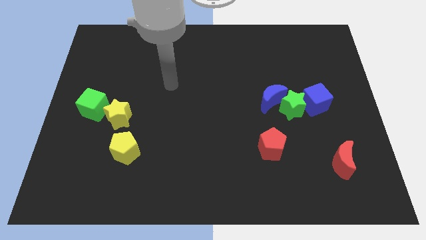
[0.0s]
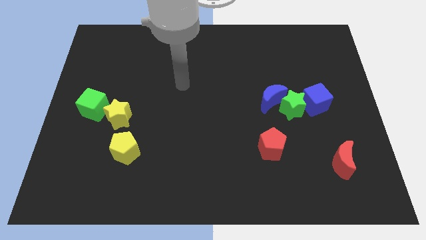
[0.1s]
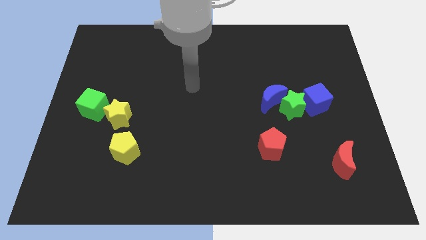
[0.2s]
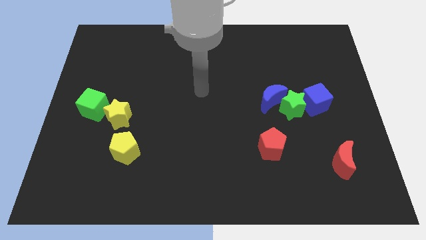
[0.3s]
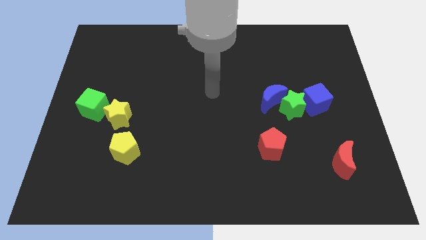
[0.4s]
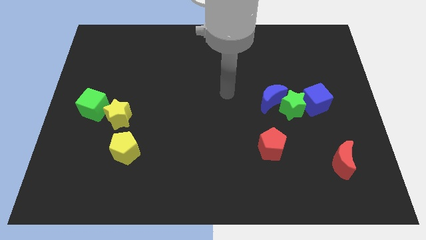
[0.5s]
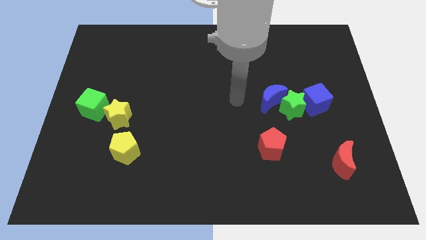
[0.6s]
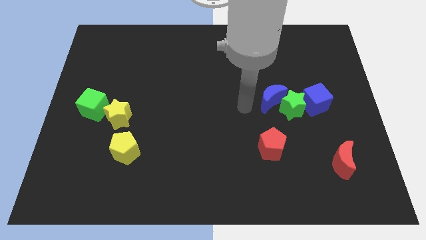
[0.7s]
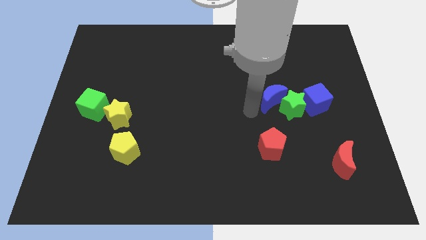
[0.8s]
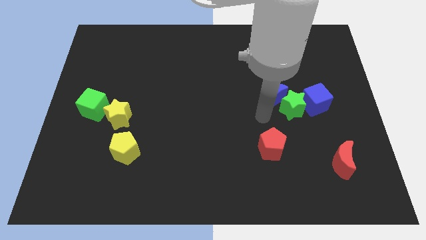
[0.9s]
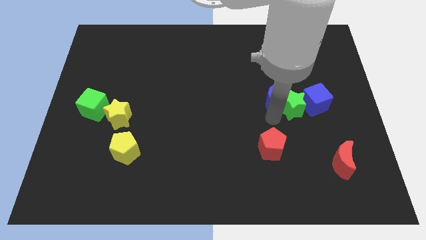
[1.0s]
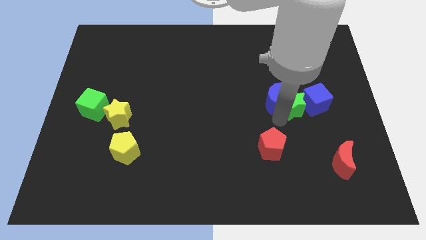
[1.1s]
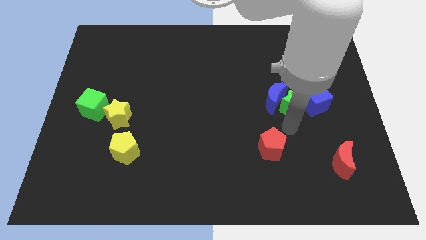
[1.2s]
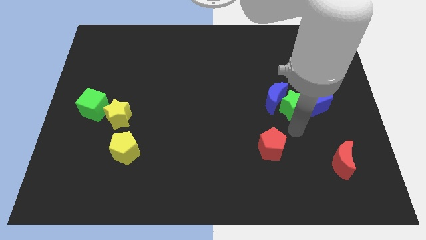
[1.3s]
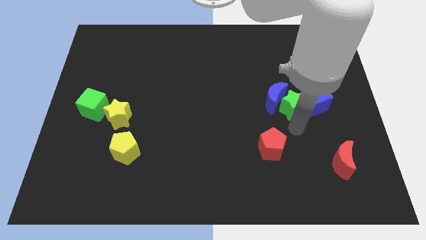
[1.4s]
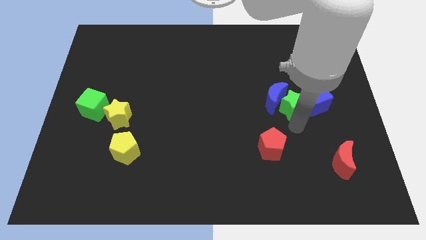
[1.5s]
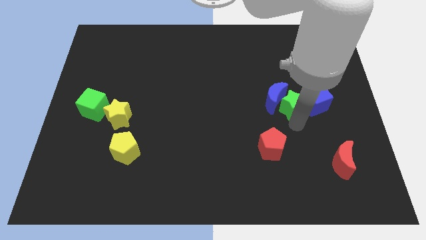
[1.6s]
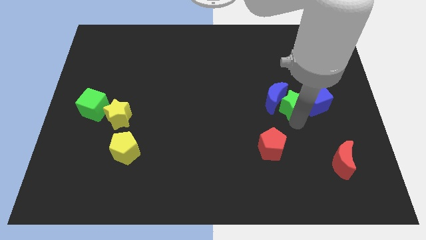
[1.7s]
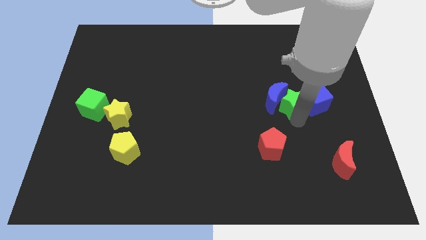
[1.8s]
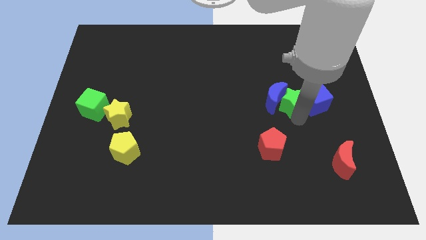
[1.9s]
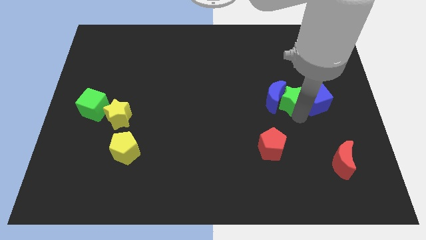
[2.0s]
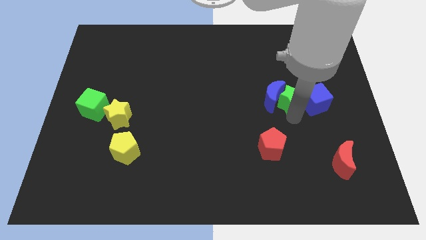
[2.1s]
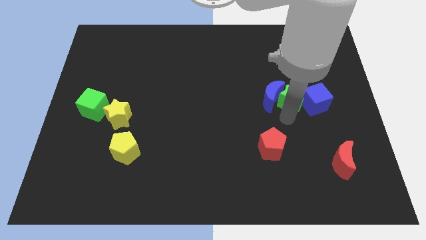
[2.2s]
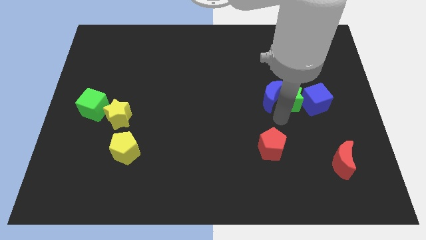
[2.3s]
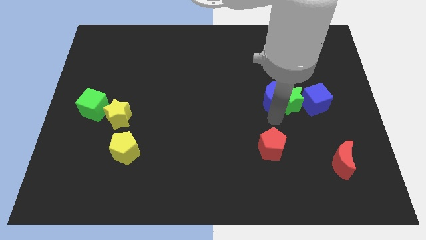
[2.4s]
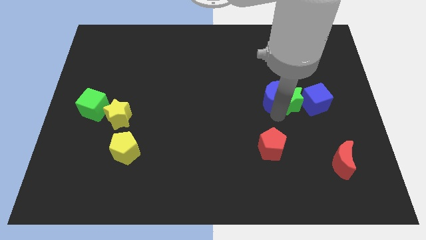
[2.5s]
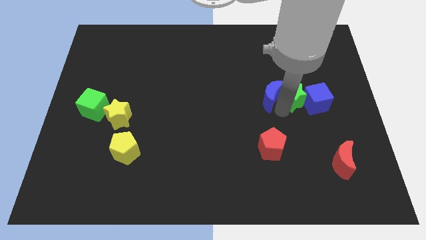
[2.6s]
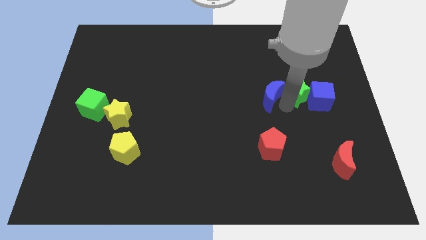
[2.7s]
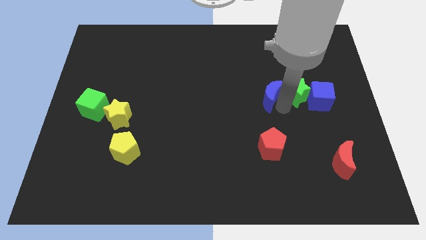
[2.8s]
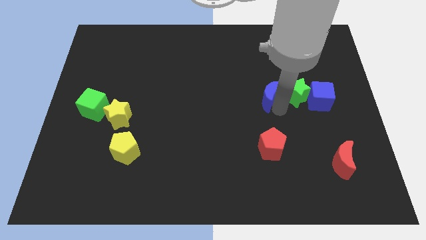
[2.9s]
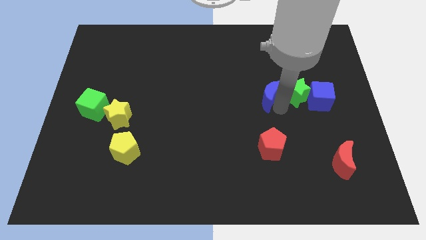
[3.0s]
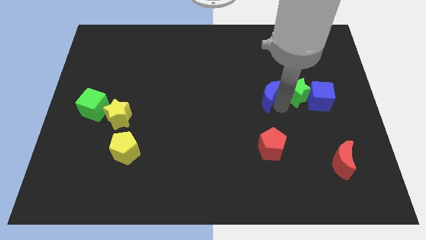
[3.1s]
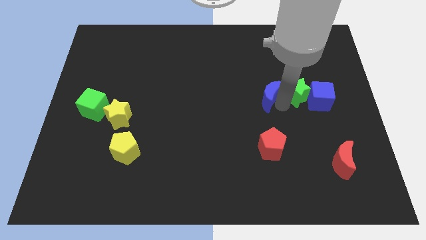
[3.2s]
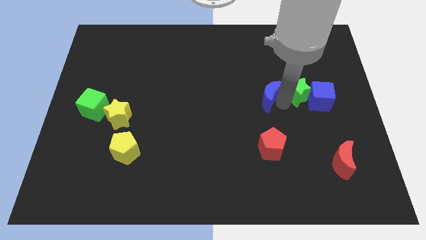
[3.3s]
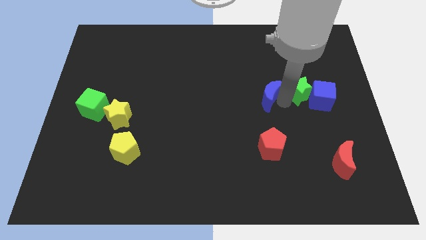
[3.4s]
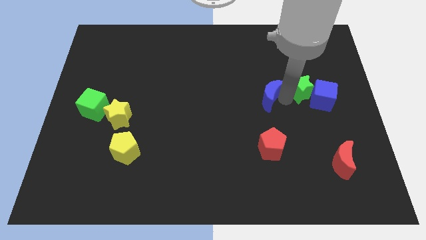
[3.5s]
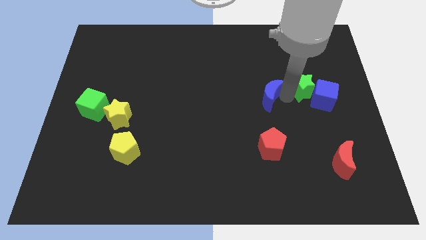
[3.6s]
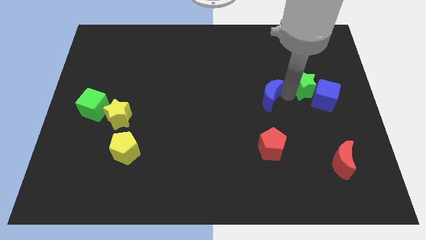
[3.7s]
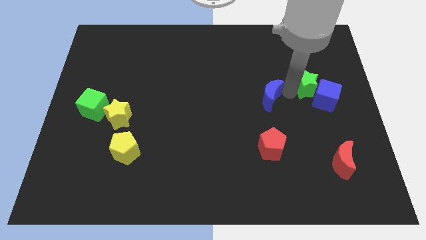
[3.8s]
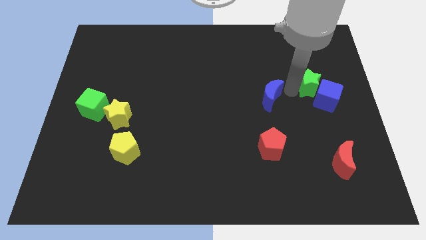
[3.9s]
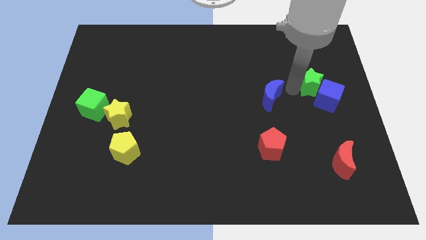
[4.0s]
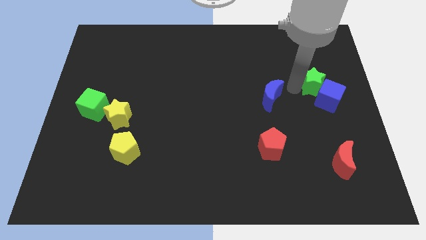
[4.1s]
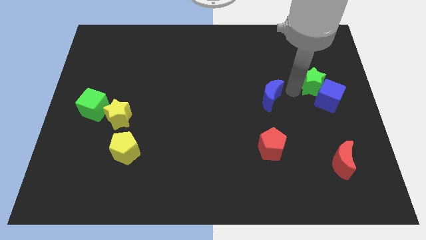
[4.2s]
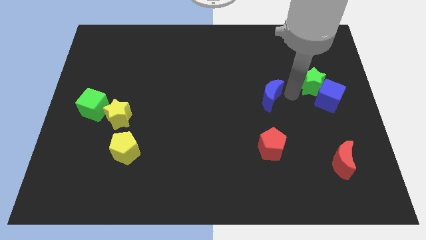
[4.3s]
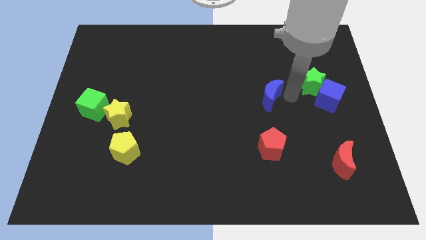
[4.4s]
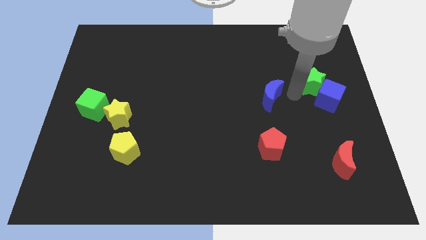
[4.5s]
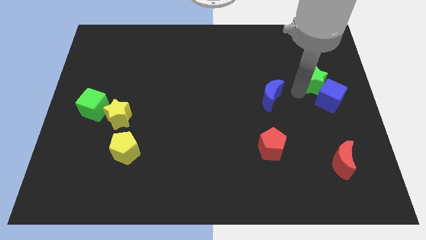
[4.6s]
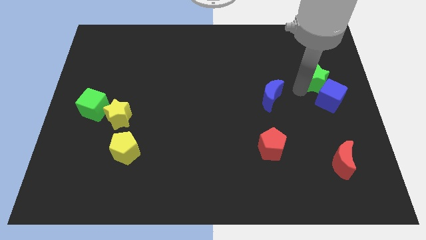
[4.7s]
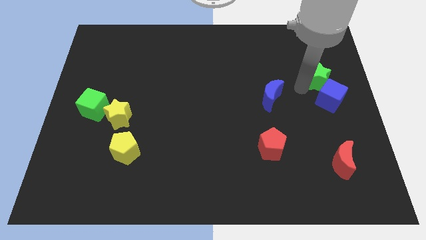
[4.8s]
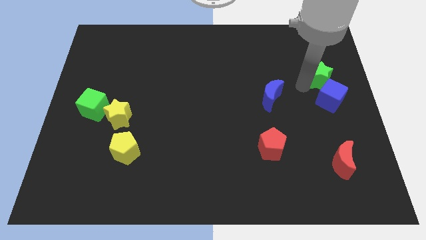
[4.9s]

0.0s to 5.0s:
put the green star to the right side of the board

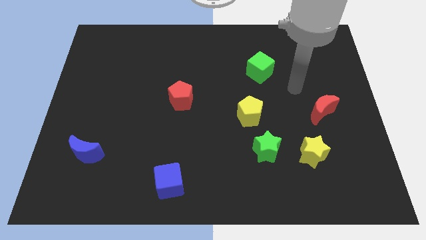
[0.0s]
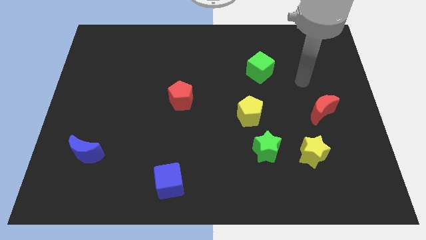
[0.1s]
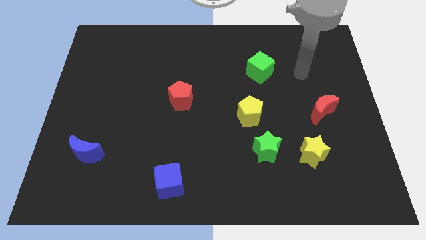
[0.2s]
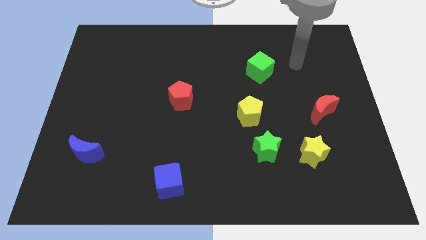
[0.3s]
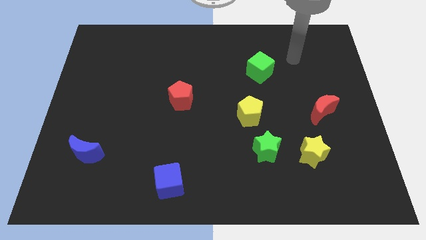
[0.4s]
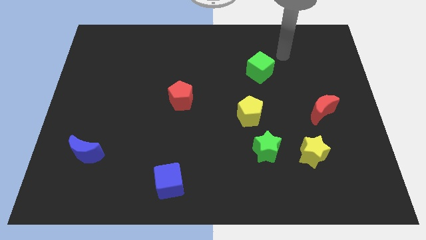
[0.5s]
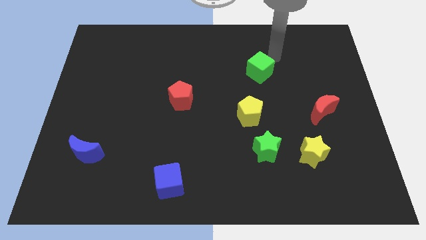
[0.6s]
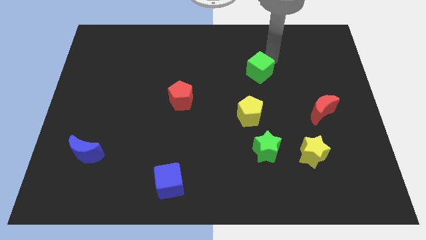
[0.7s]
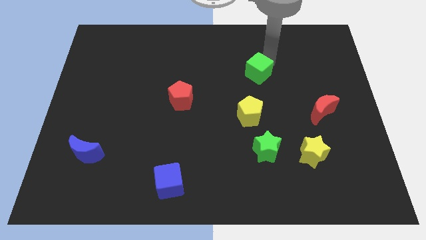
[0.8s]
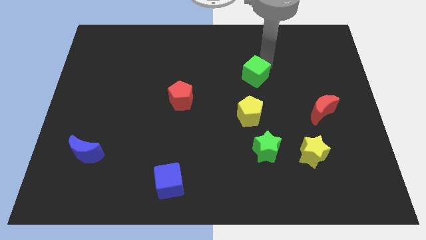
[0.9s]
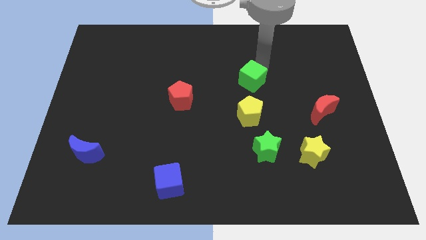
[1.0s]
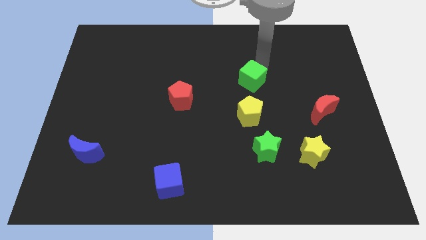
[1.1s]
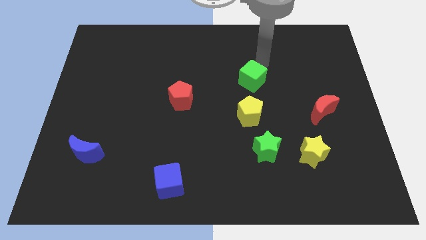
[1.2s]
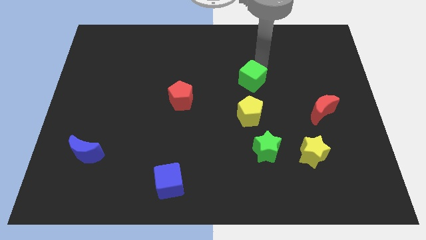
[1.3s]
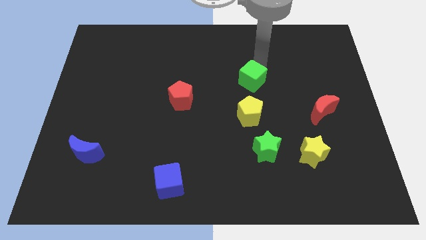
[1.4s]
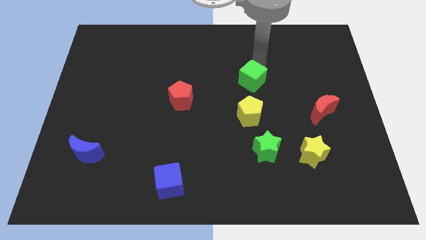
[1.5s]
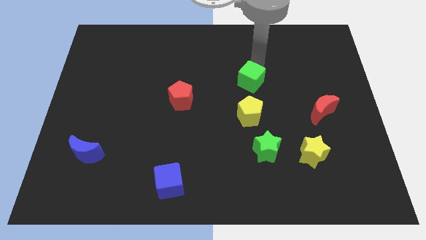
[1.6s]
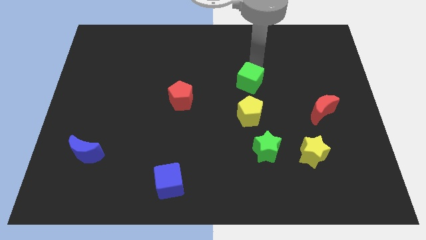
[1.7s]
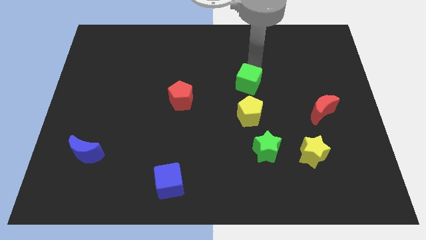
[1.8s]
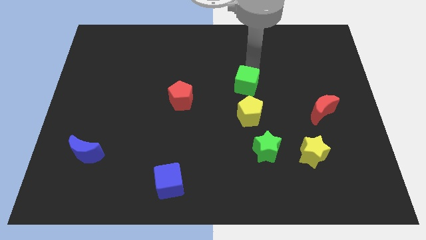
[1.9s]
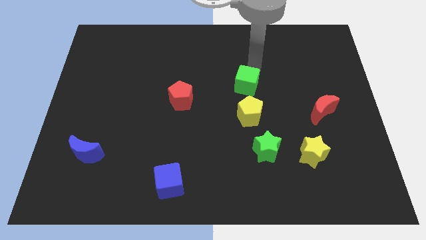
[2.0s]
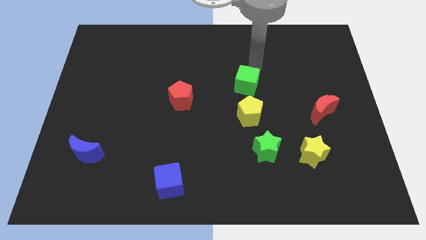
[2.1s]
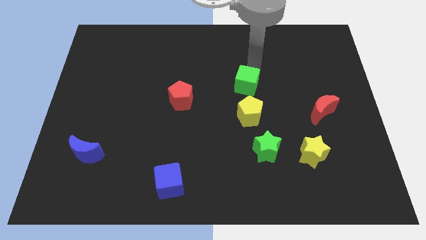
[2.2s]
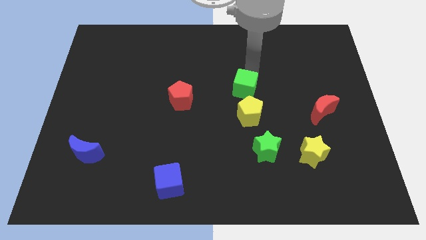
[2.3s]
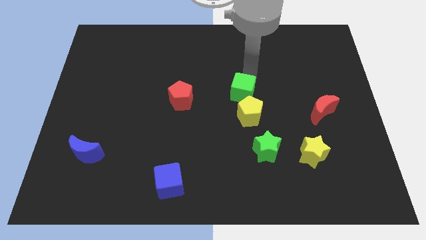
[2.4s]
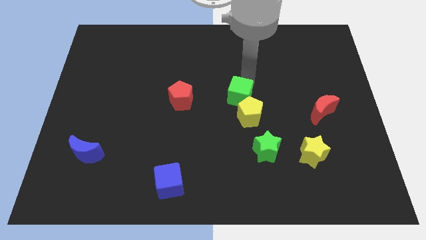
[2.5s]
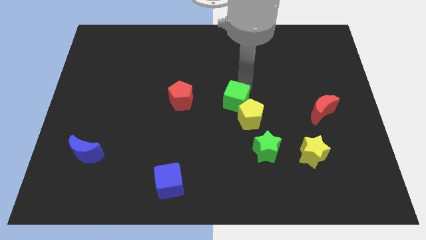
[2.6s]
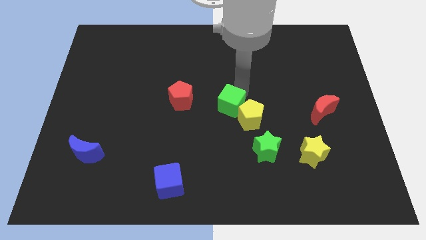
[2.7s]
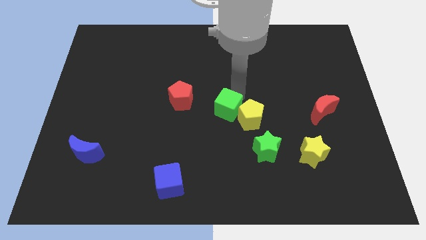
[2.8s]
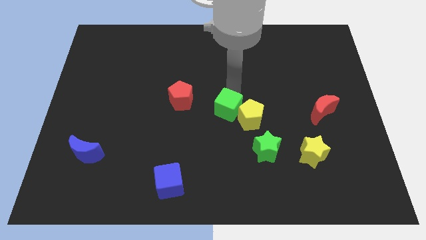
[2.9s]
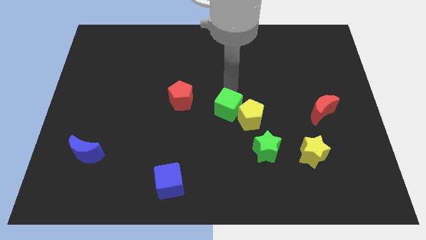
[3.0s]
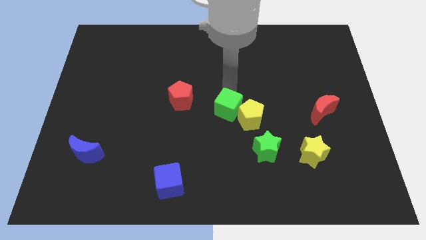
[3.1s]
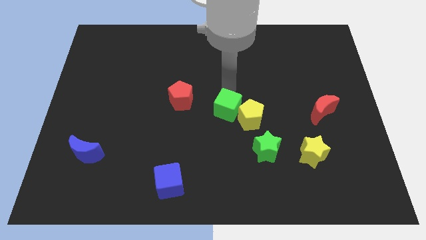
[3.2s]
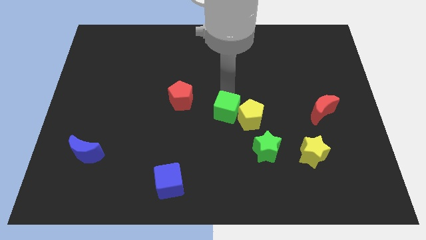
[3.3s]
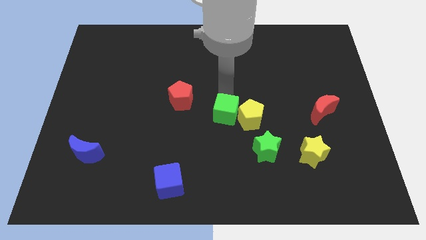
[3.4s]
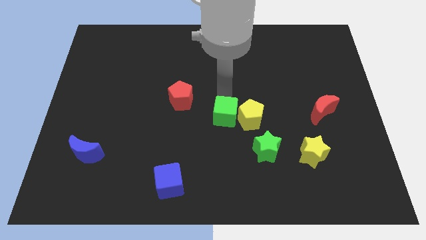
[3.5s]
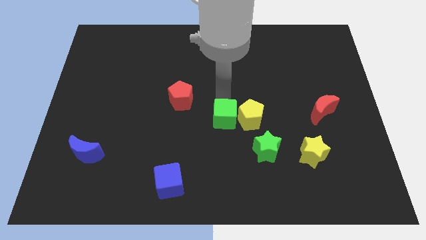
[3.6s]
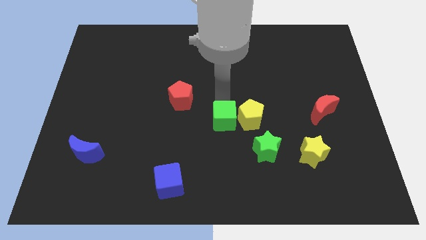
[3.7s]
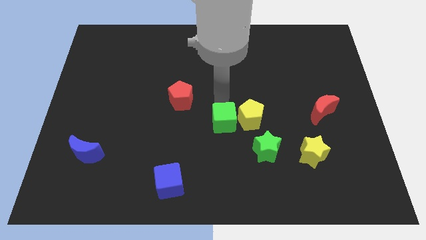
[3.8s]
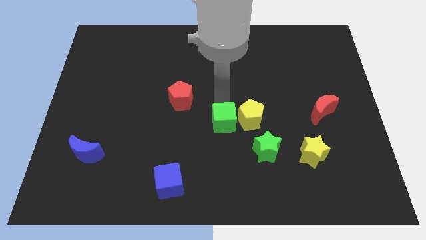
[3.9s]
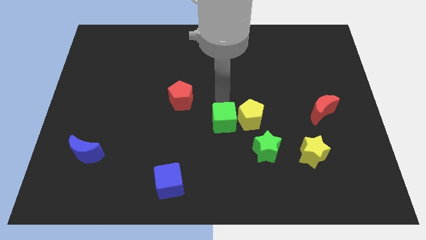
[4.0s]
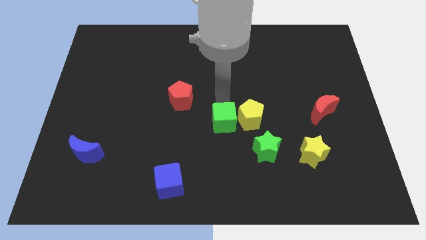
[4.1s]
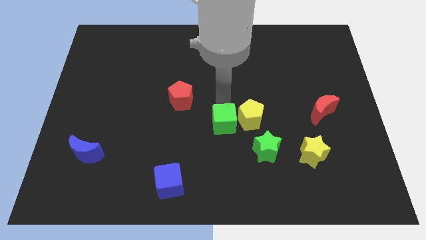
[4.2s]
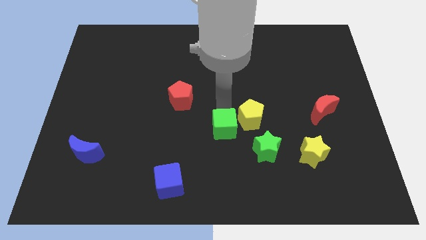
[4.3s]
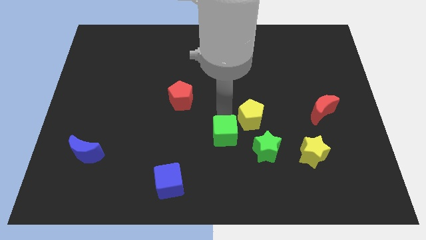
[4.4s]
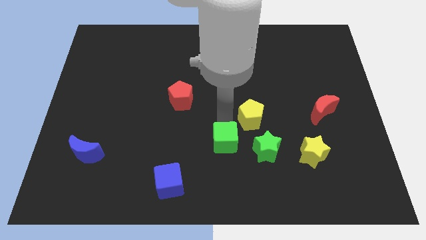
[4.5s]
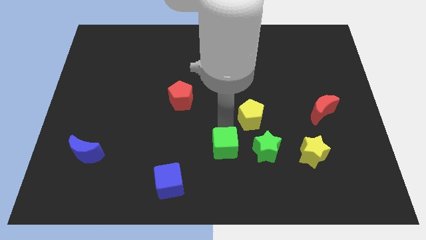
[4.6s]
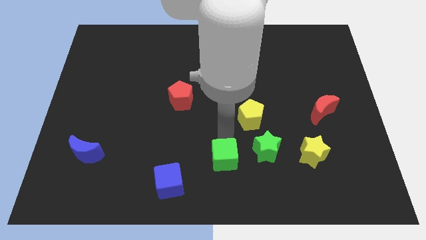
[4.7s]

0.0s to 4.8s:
move the green cube to the bottom side
